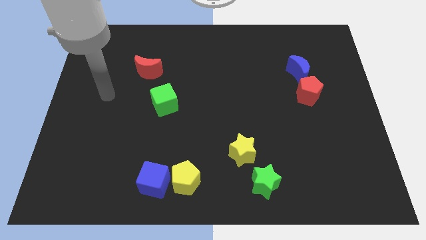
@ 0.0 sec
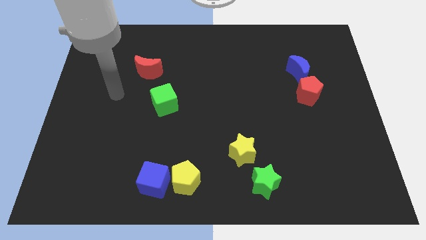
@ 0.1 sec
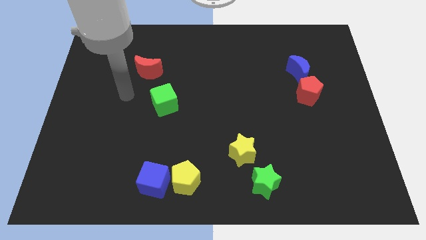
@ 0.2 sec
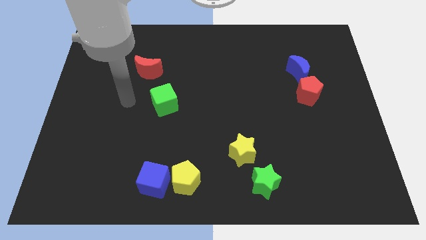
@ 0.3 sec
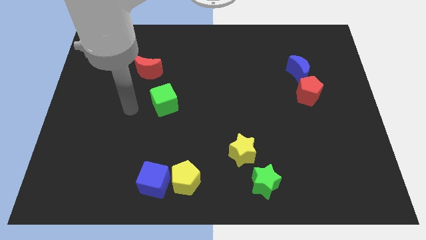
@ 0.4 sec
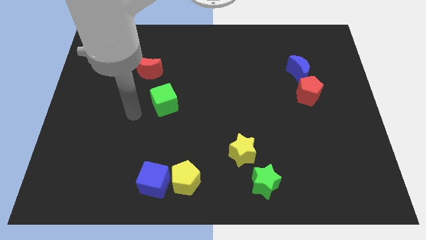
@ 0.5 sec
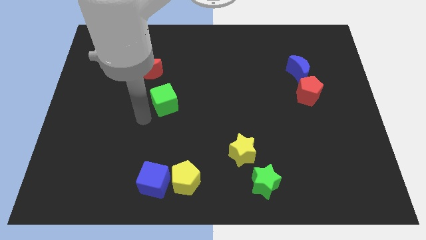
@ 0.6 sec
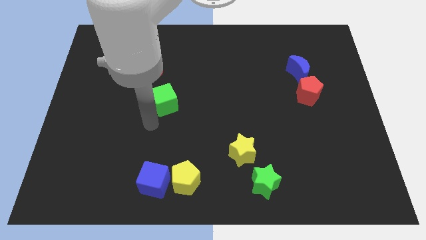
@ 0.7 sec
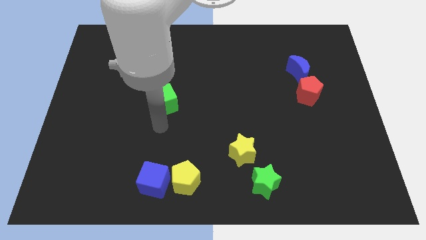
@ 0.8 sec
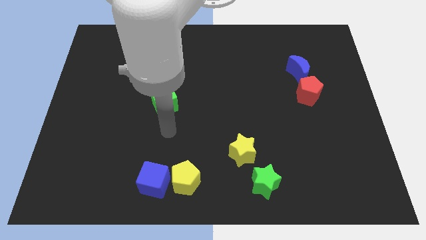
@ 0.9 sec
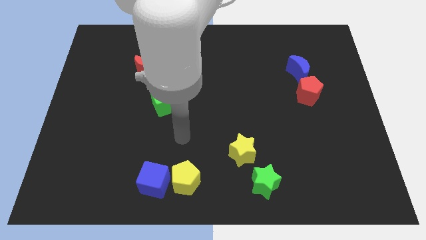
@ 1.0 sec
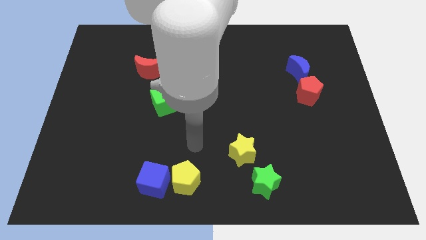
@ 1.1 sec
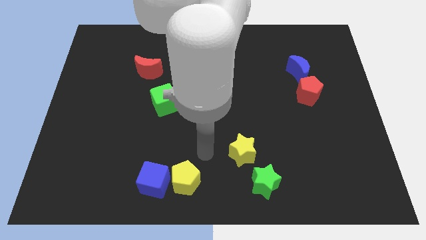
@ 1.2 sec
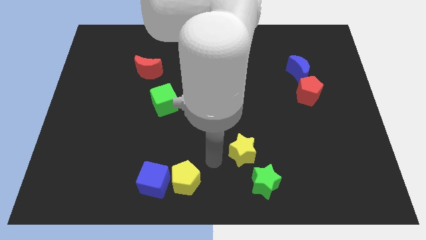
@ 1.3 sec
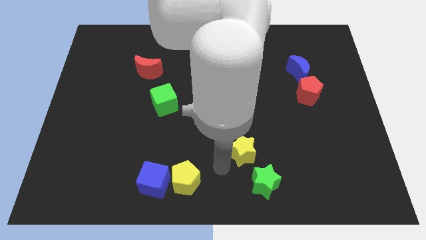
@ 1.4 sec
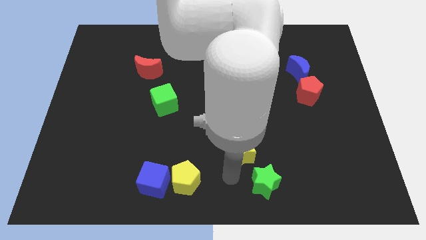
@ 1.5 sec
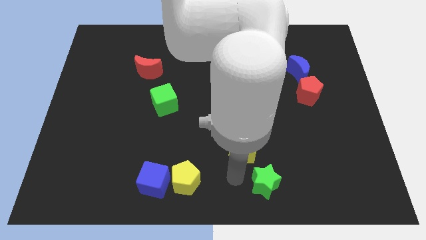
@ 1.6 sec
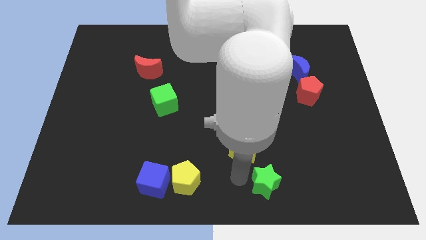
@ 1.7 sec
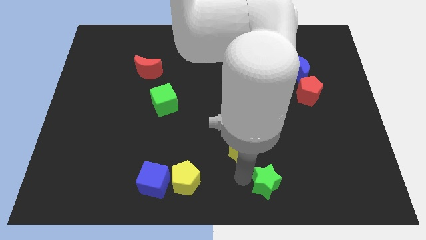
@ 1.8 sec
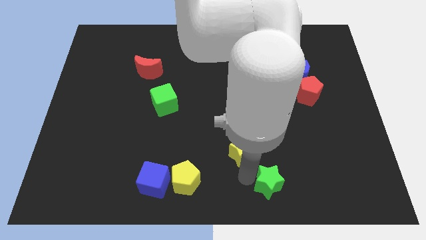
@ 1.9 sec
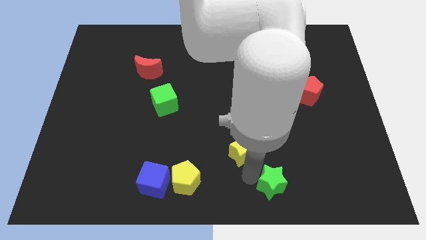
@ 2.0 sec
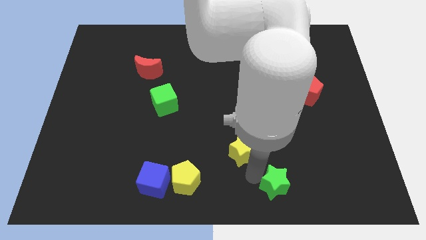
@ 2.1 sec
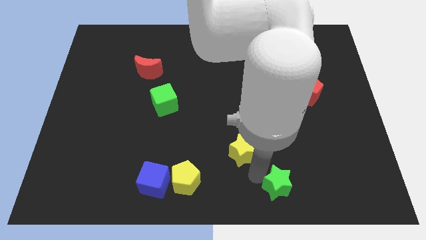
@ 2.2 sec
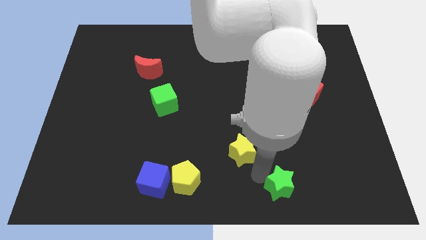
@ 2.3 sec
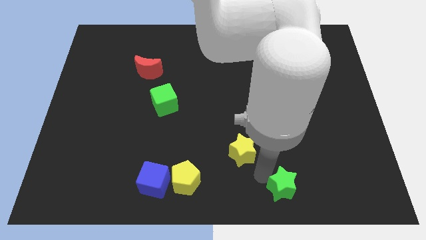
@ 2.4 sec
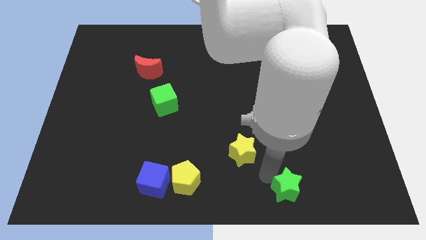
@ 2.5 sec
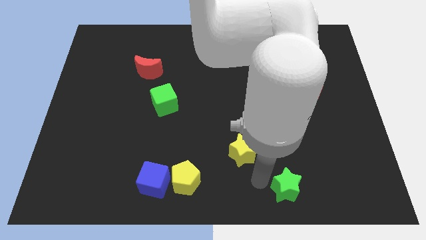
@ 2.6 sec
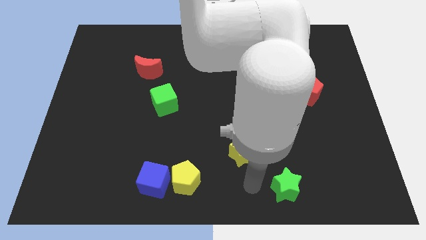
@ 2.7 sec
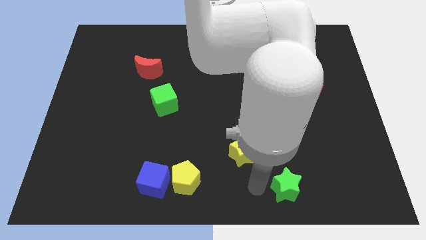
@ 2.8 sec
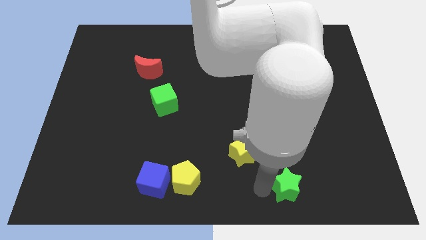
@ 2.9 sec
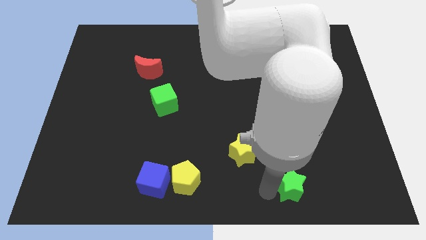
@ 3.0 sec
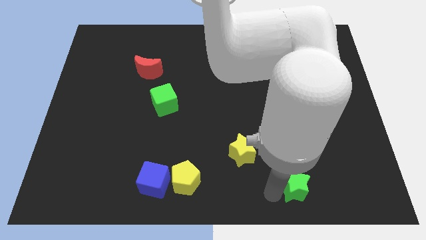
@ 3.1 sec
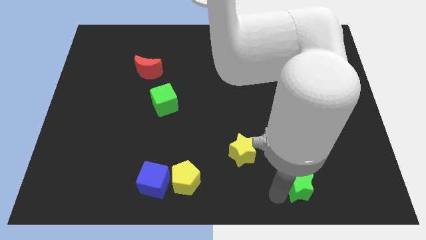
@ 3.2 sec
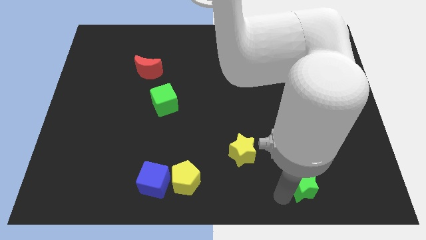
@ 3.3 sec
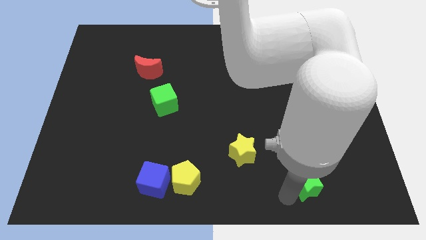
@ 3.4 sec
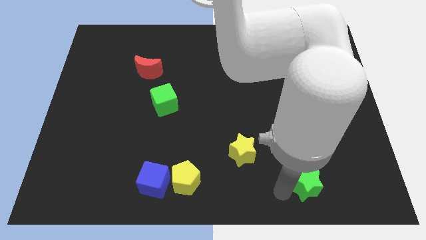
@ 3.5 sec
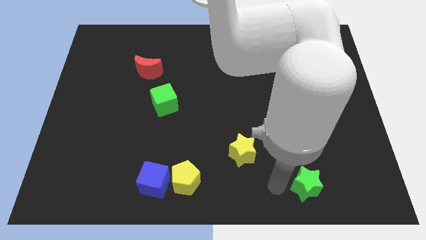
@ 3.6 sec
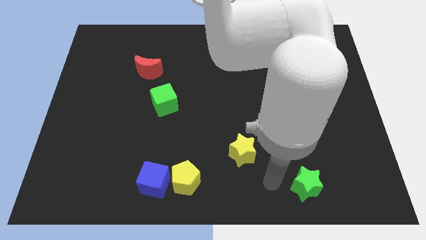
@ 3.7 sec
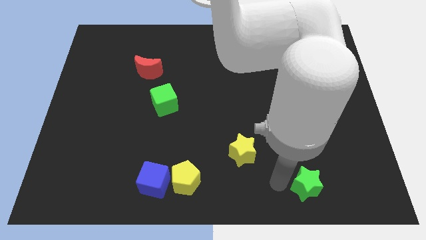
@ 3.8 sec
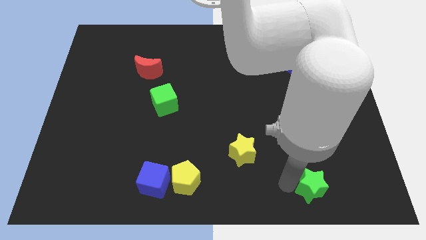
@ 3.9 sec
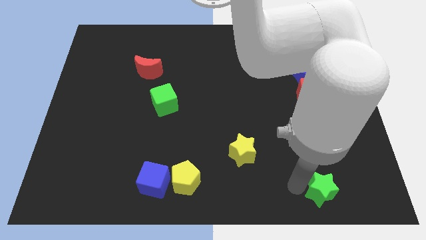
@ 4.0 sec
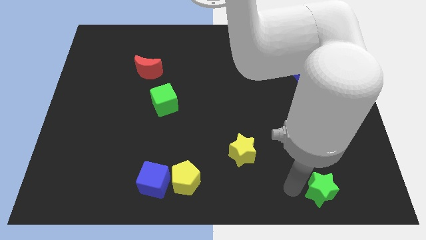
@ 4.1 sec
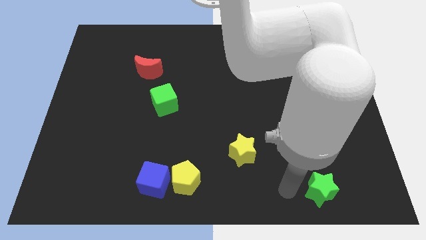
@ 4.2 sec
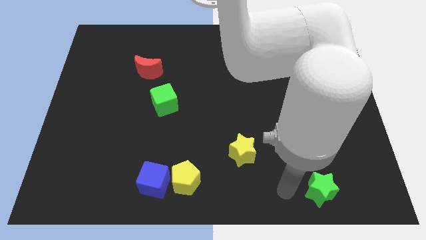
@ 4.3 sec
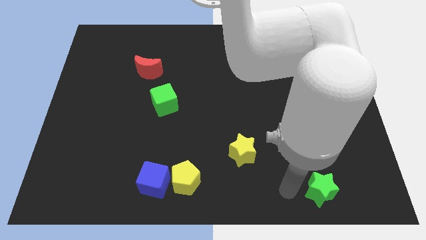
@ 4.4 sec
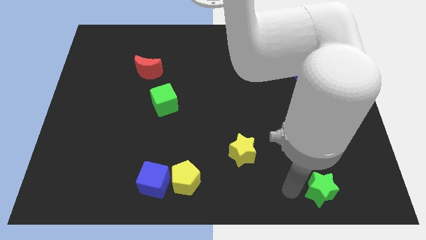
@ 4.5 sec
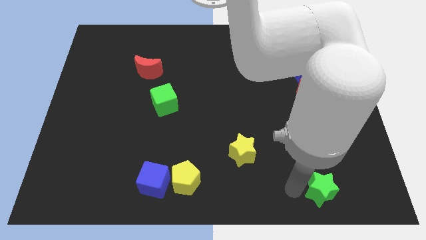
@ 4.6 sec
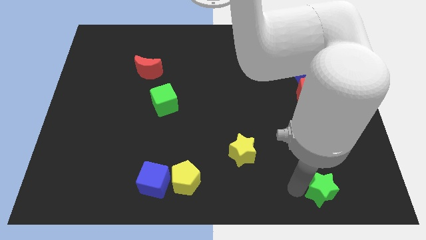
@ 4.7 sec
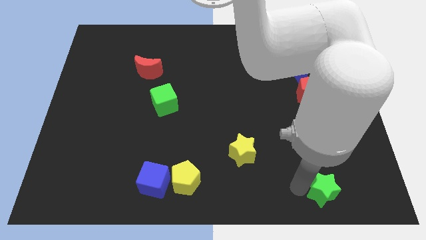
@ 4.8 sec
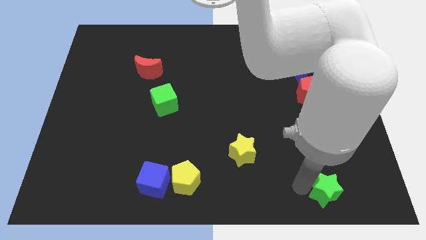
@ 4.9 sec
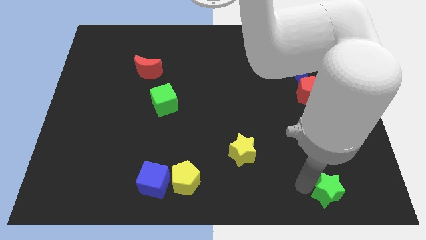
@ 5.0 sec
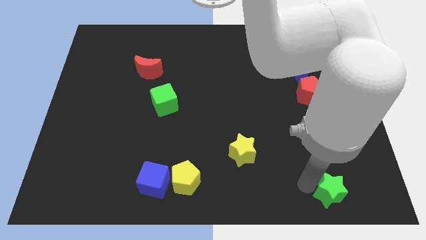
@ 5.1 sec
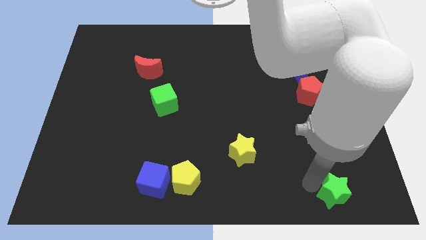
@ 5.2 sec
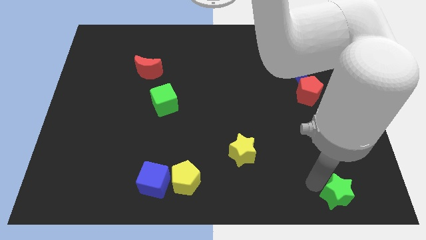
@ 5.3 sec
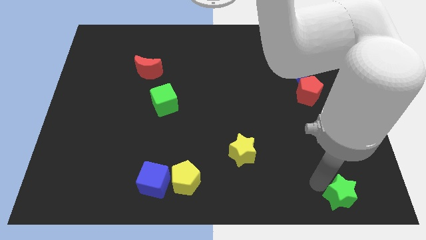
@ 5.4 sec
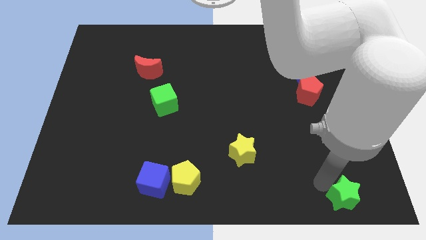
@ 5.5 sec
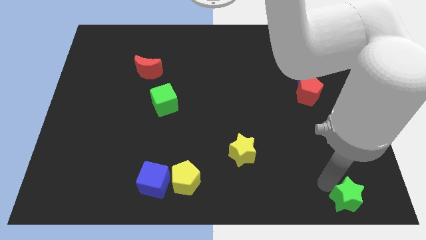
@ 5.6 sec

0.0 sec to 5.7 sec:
put the green star to the lower right corner
